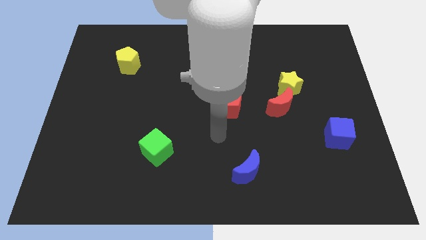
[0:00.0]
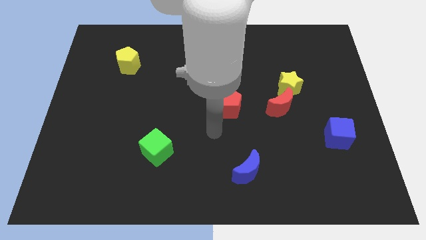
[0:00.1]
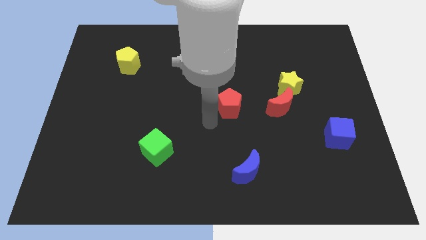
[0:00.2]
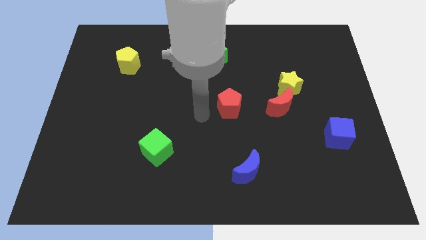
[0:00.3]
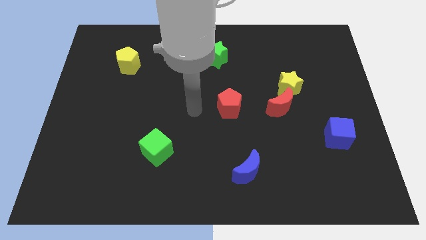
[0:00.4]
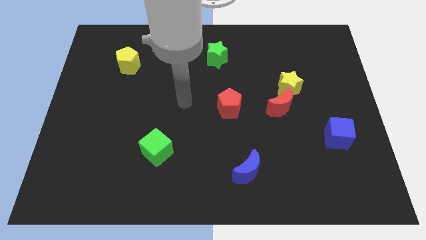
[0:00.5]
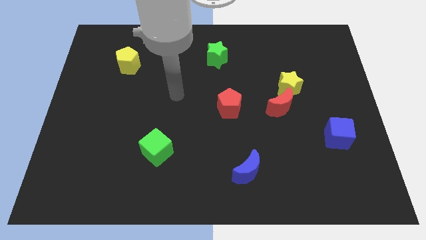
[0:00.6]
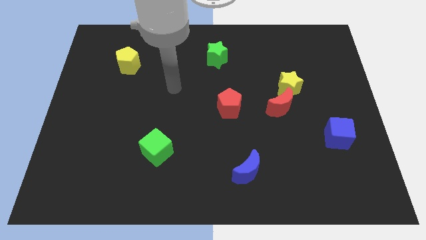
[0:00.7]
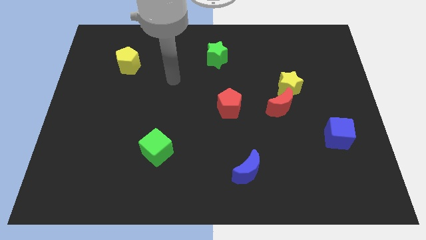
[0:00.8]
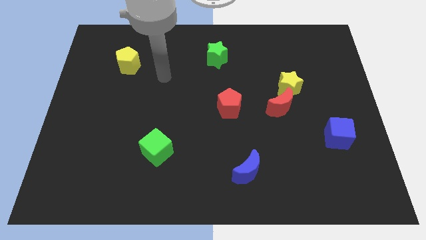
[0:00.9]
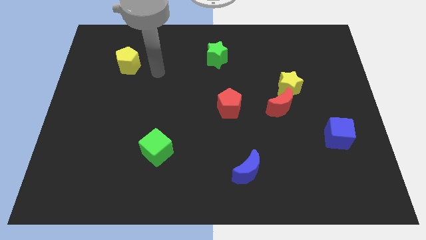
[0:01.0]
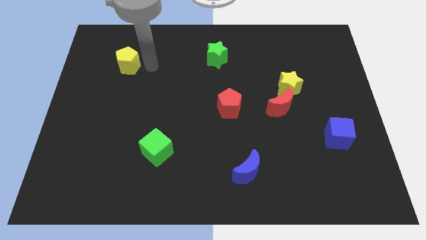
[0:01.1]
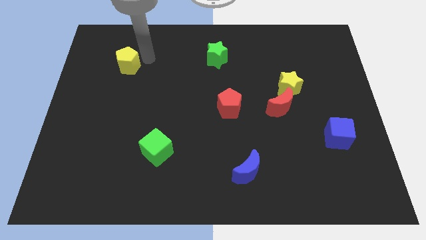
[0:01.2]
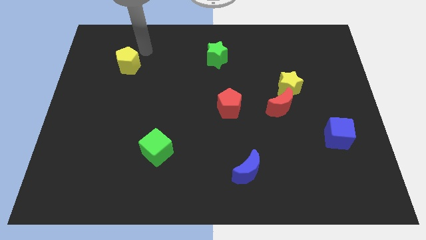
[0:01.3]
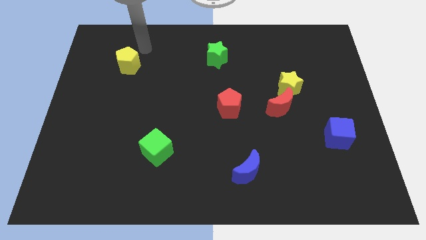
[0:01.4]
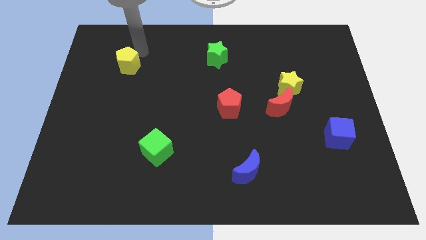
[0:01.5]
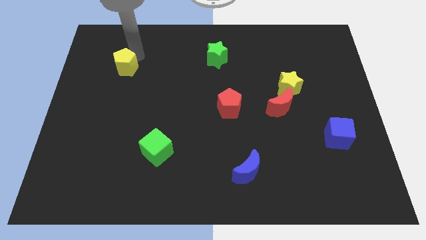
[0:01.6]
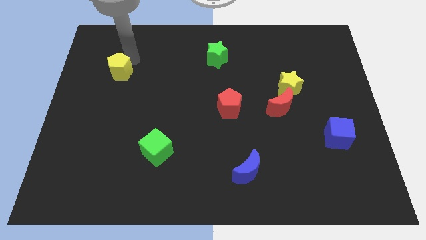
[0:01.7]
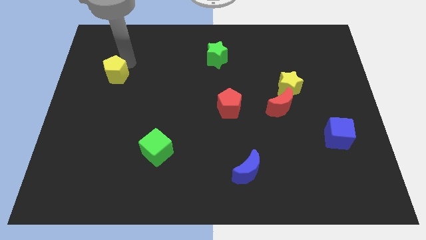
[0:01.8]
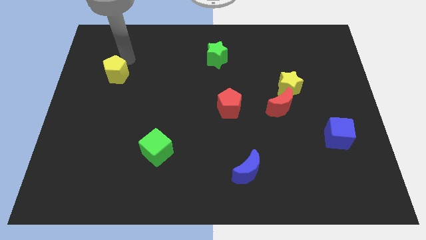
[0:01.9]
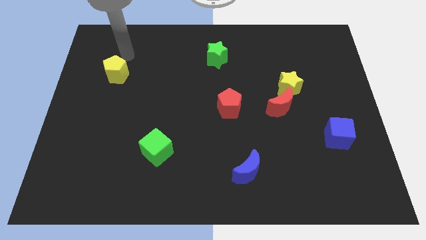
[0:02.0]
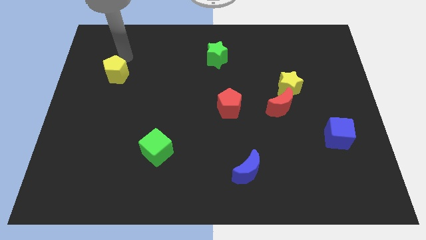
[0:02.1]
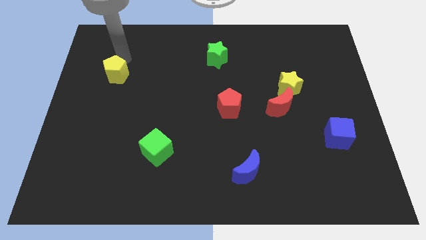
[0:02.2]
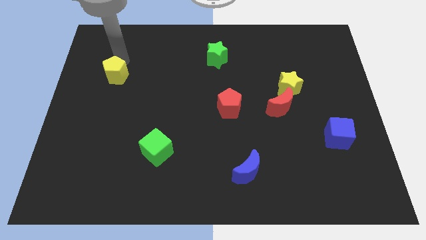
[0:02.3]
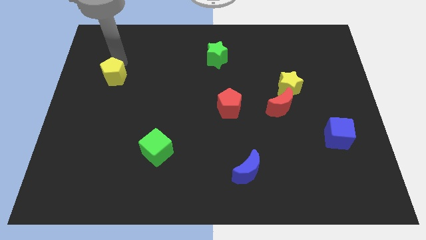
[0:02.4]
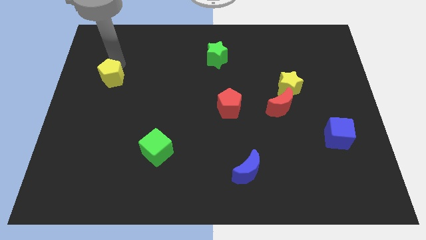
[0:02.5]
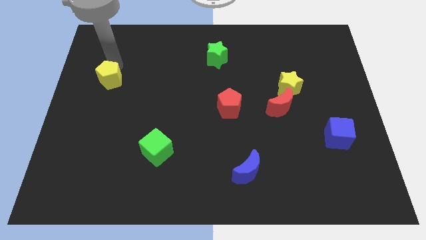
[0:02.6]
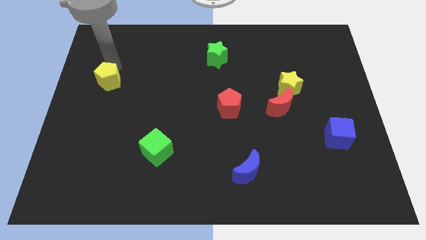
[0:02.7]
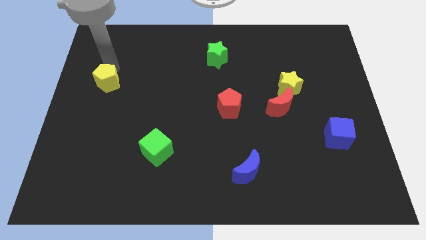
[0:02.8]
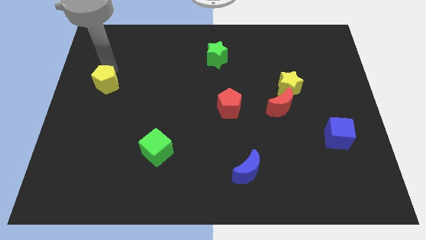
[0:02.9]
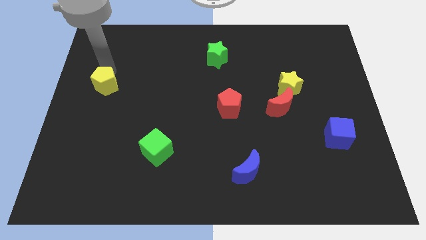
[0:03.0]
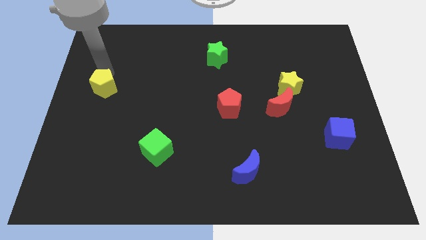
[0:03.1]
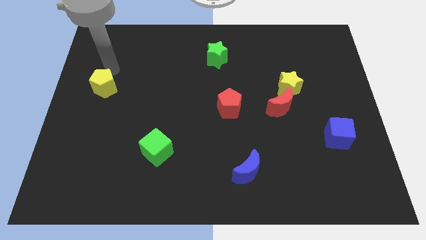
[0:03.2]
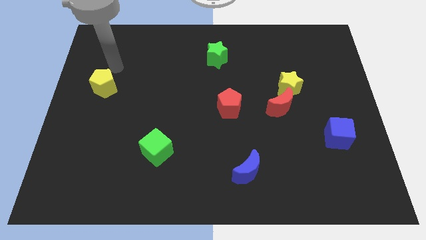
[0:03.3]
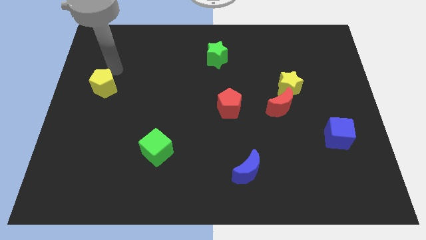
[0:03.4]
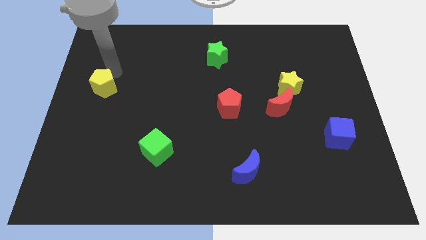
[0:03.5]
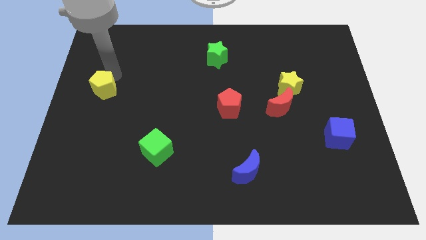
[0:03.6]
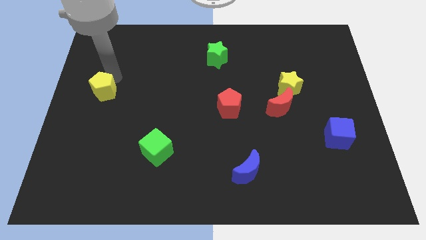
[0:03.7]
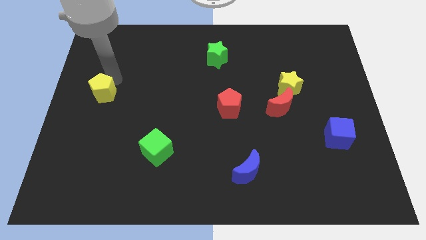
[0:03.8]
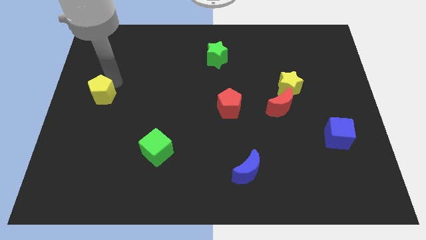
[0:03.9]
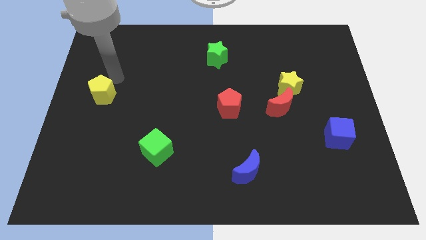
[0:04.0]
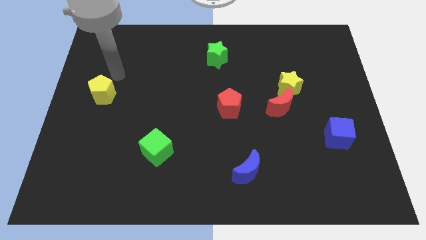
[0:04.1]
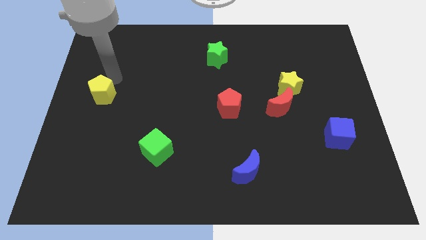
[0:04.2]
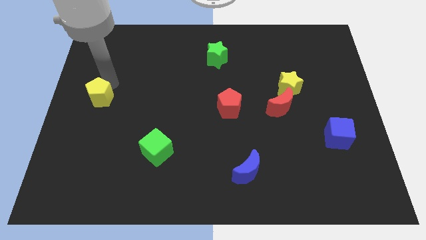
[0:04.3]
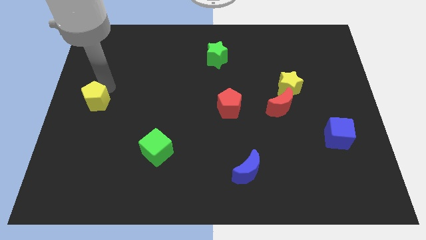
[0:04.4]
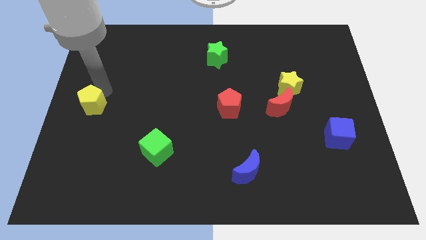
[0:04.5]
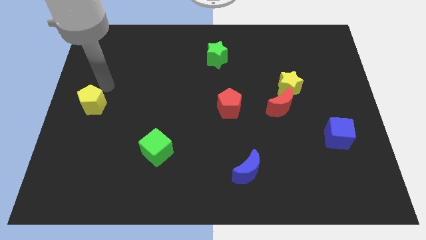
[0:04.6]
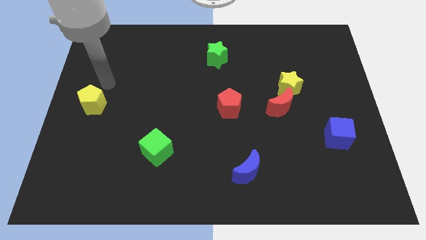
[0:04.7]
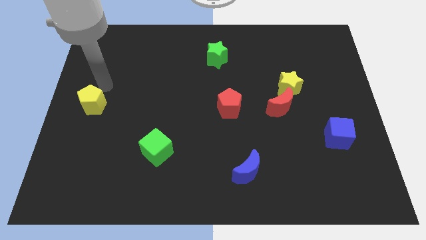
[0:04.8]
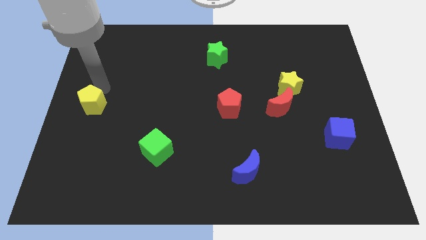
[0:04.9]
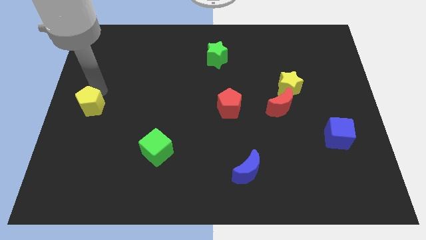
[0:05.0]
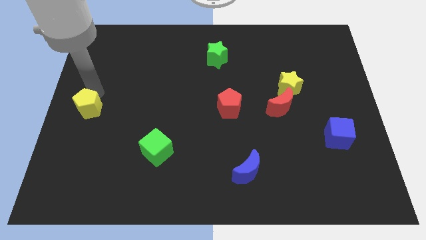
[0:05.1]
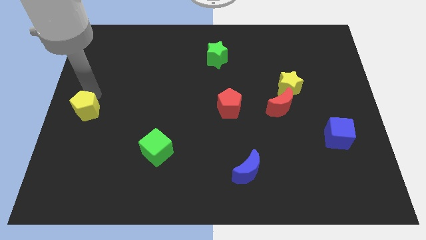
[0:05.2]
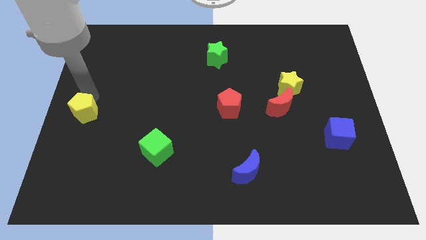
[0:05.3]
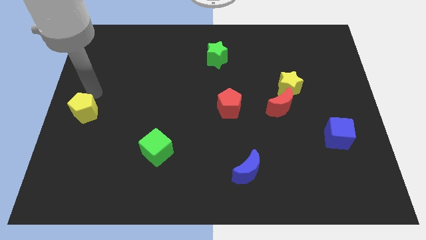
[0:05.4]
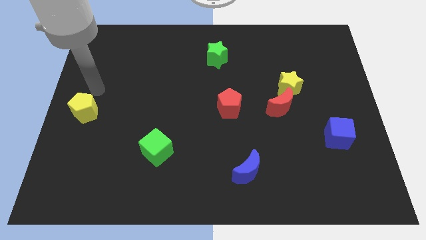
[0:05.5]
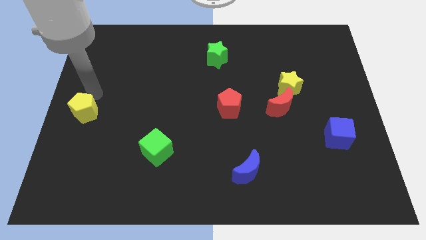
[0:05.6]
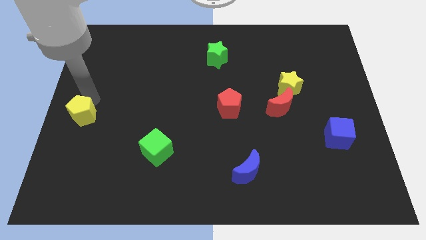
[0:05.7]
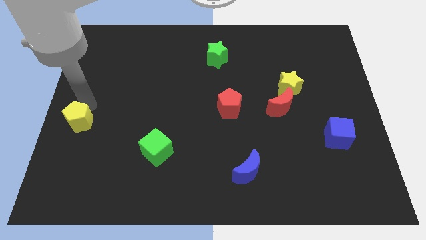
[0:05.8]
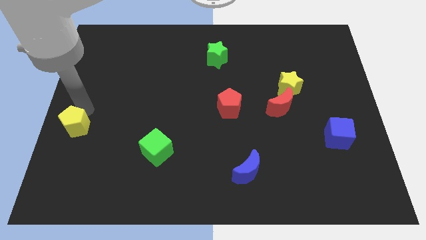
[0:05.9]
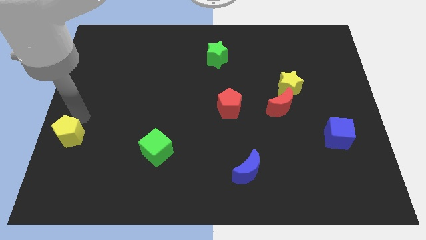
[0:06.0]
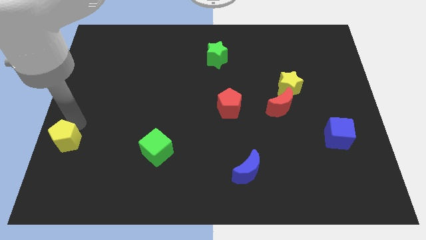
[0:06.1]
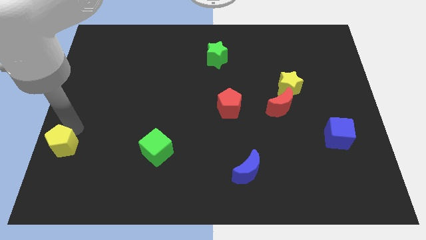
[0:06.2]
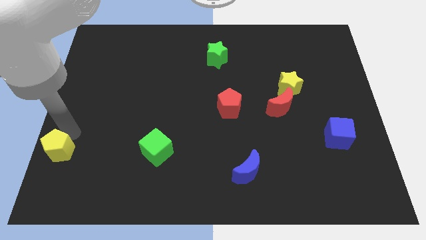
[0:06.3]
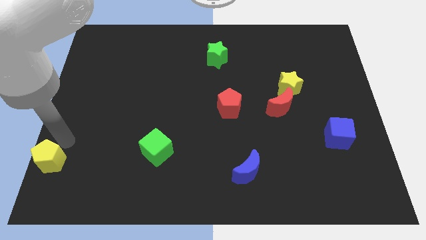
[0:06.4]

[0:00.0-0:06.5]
move the yellow pentagon to the bottom left corner

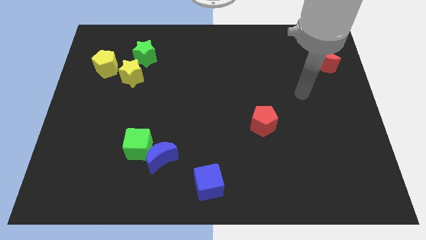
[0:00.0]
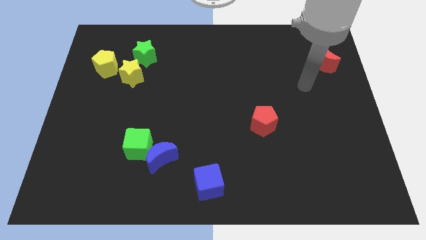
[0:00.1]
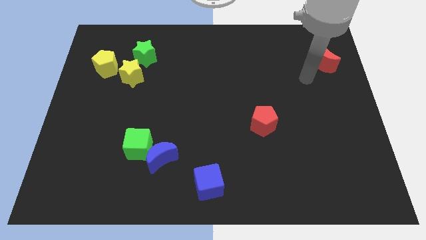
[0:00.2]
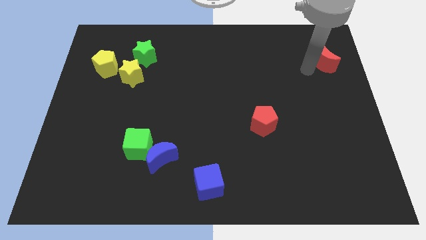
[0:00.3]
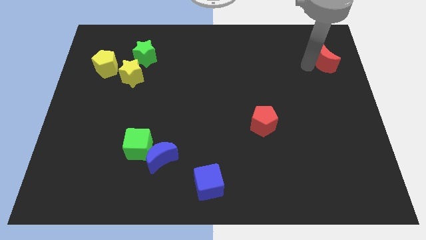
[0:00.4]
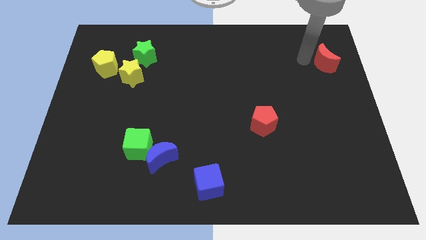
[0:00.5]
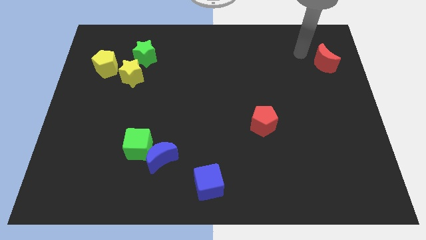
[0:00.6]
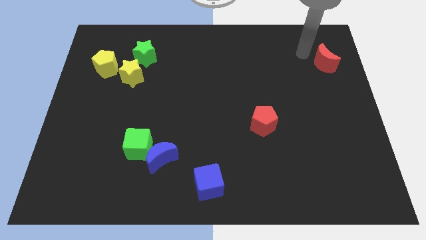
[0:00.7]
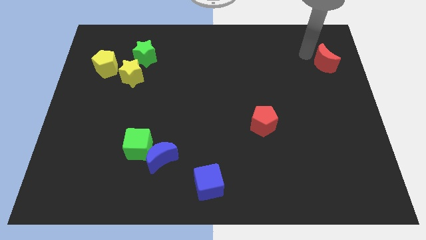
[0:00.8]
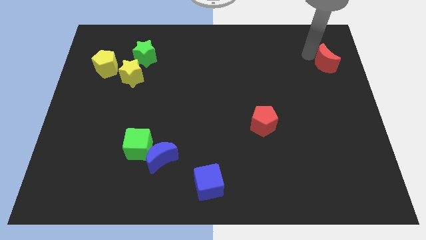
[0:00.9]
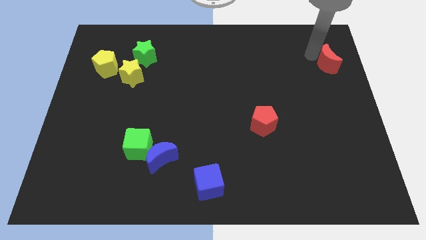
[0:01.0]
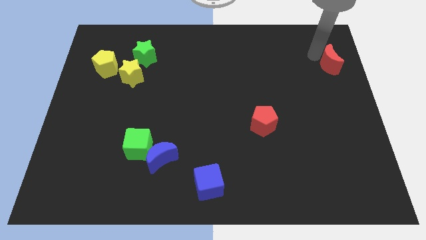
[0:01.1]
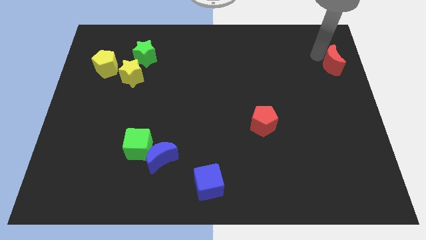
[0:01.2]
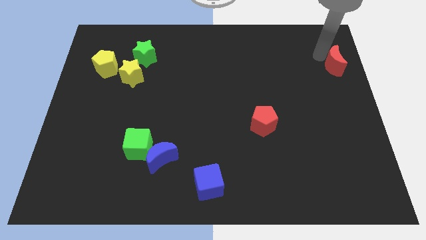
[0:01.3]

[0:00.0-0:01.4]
move the red moon to the center right
